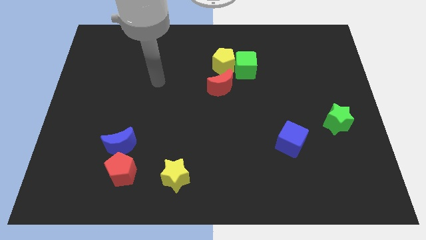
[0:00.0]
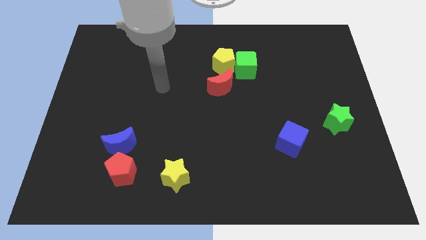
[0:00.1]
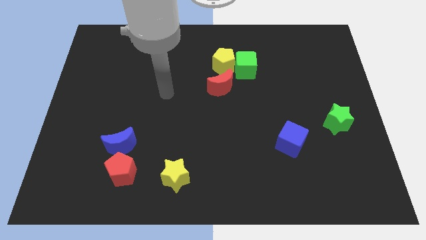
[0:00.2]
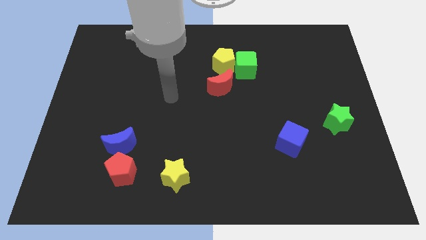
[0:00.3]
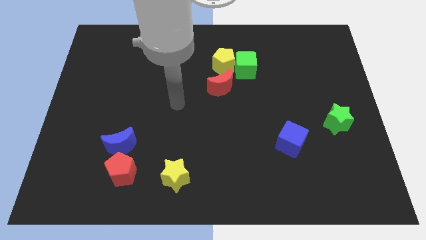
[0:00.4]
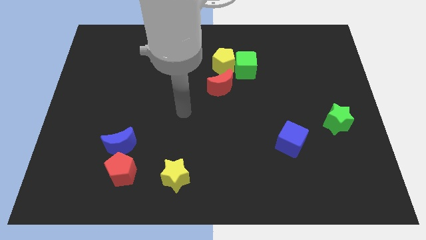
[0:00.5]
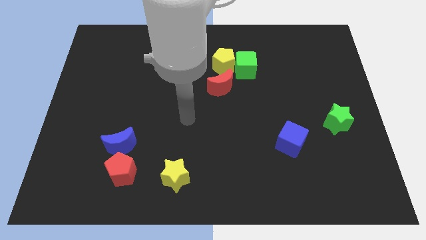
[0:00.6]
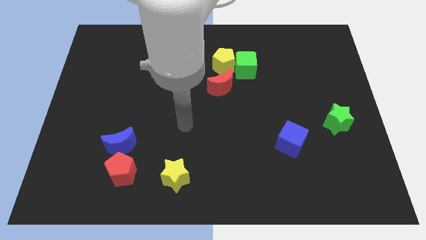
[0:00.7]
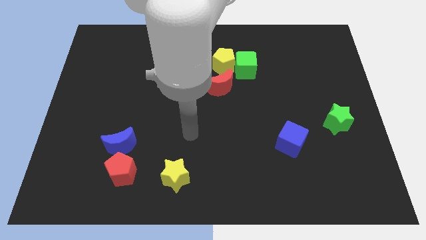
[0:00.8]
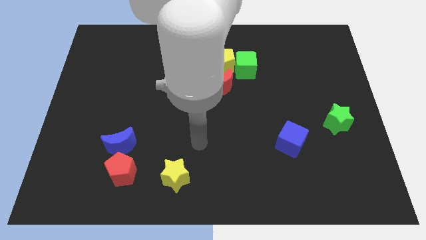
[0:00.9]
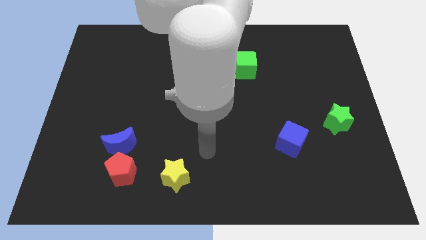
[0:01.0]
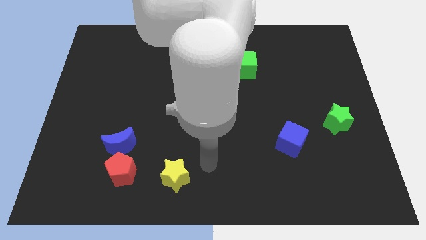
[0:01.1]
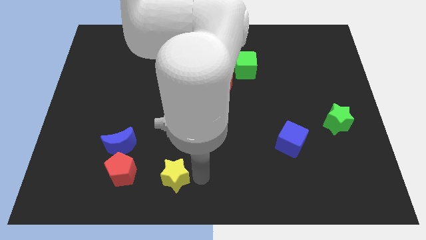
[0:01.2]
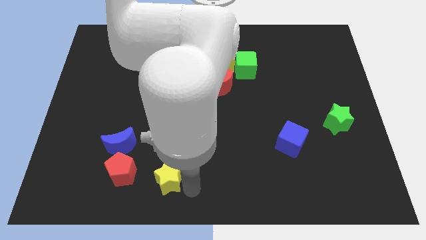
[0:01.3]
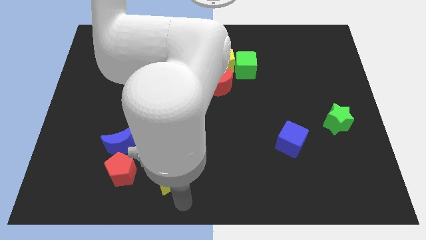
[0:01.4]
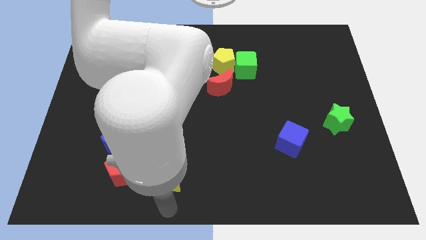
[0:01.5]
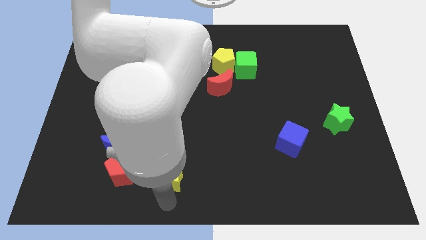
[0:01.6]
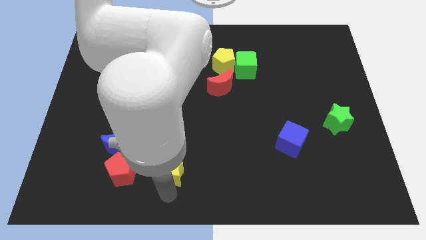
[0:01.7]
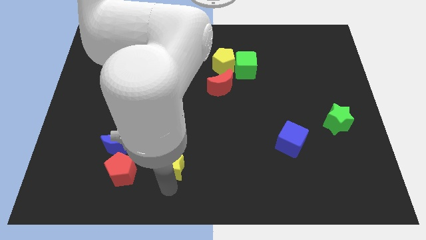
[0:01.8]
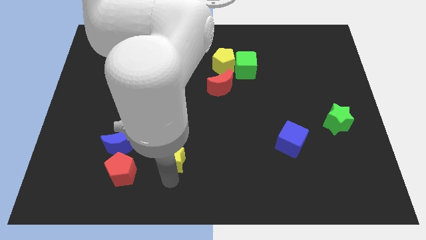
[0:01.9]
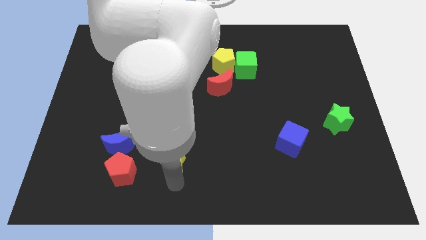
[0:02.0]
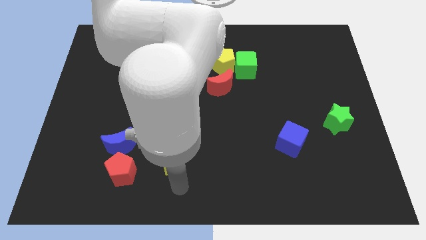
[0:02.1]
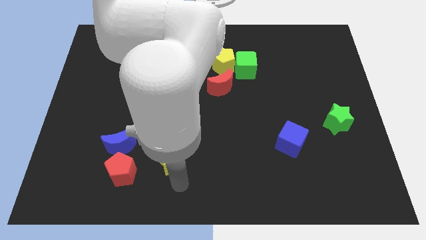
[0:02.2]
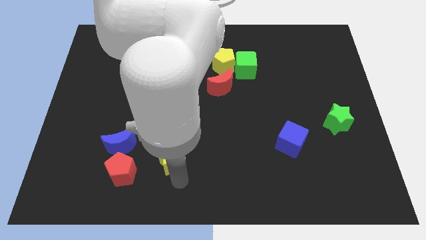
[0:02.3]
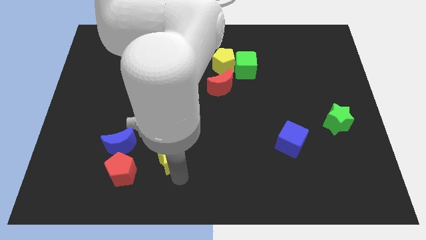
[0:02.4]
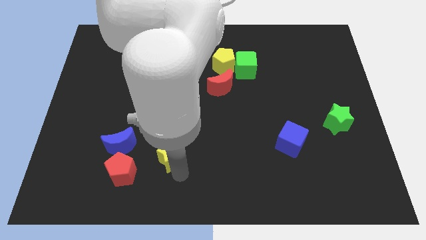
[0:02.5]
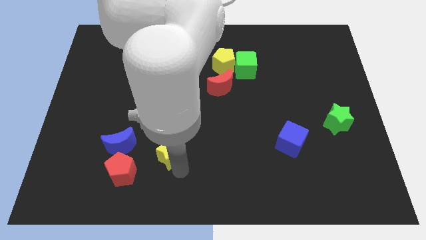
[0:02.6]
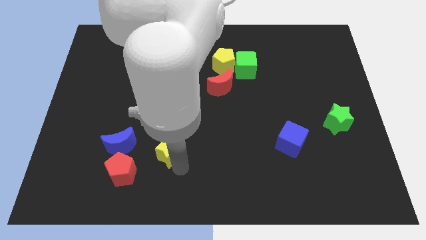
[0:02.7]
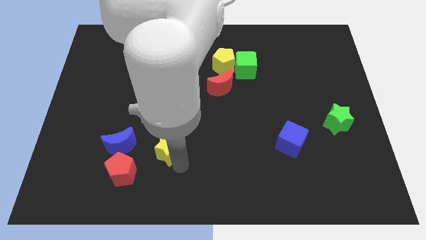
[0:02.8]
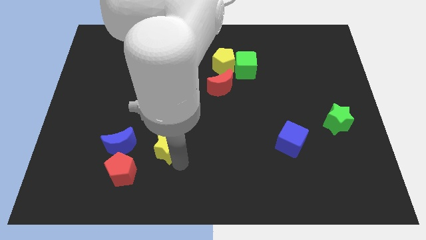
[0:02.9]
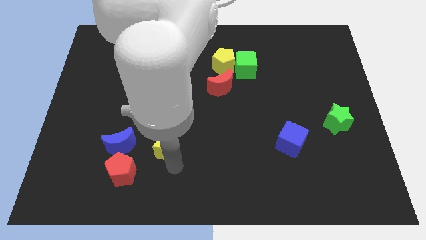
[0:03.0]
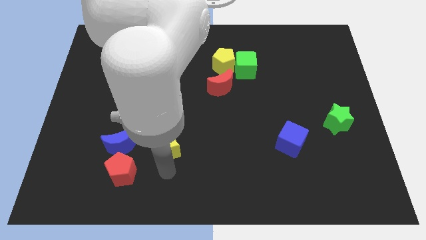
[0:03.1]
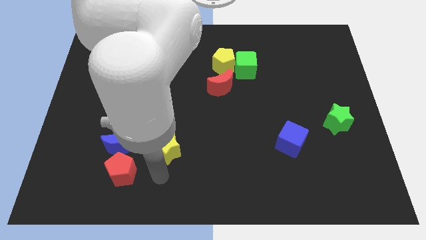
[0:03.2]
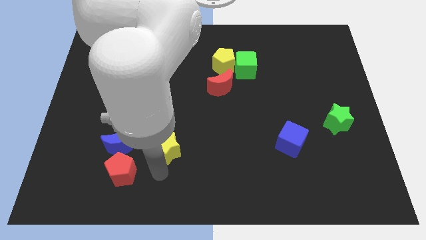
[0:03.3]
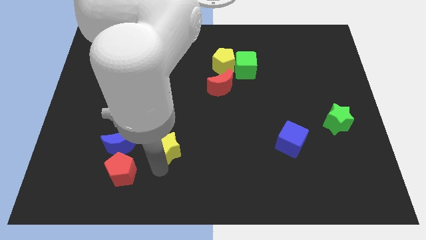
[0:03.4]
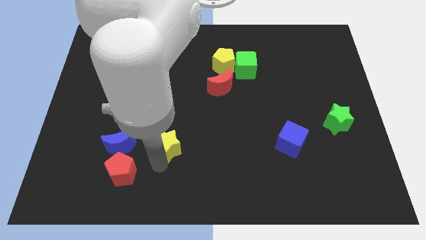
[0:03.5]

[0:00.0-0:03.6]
slightly push the yellow star upwards

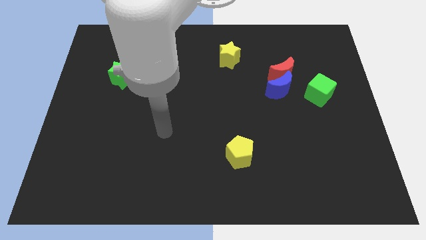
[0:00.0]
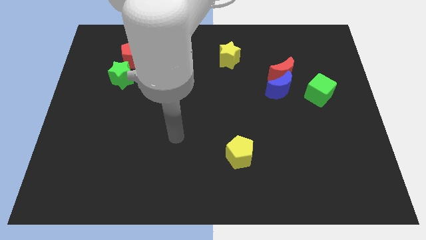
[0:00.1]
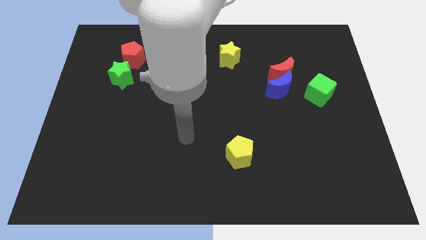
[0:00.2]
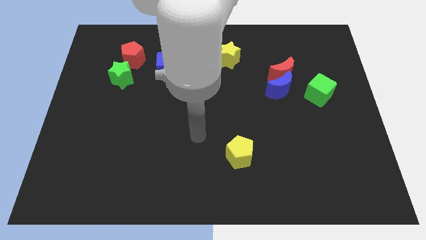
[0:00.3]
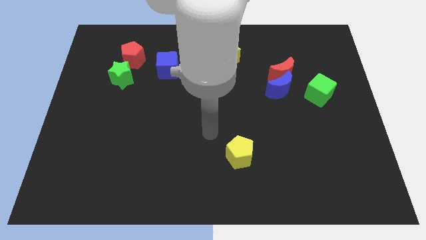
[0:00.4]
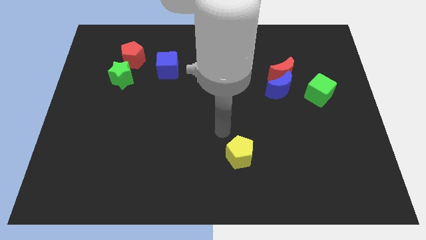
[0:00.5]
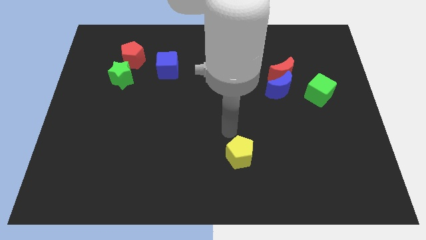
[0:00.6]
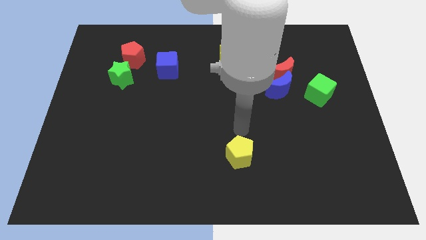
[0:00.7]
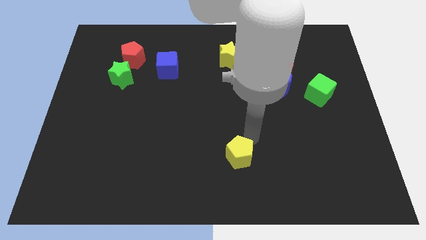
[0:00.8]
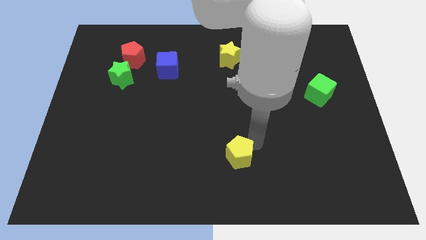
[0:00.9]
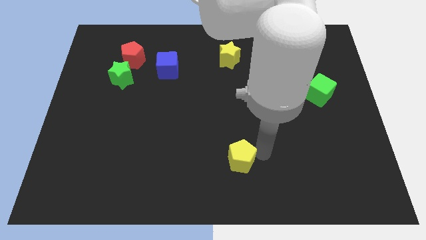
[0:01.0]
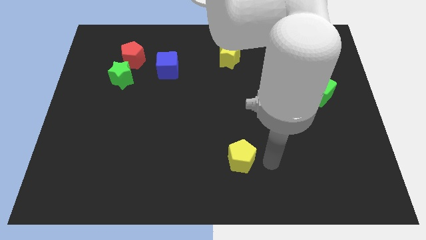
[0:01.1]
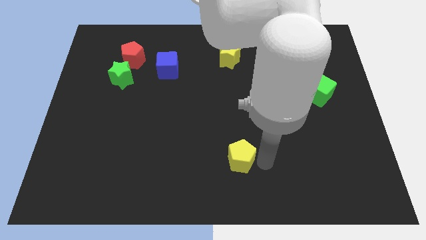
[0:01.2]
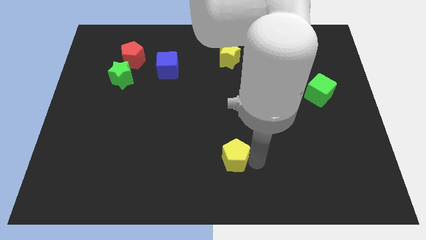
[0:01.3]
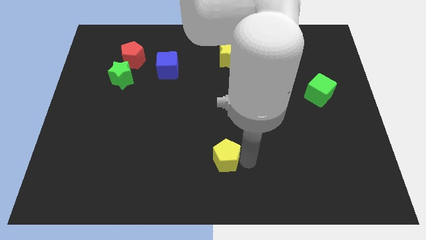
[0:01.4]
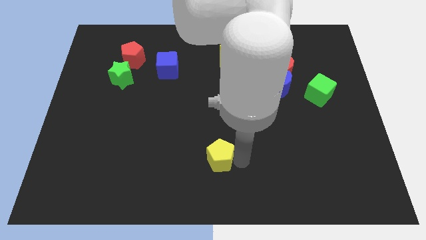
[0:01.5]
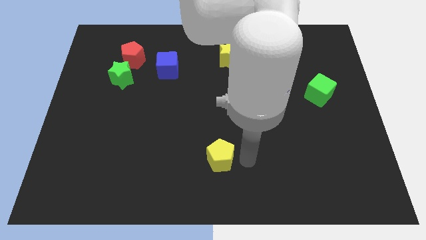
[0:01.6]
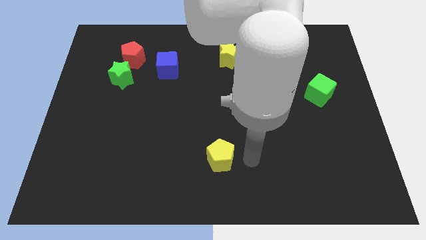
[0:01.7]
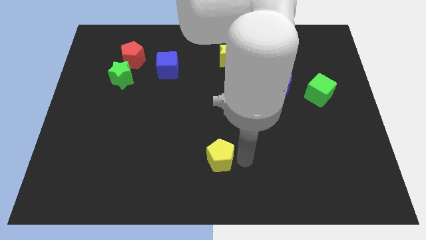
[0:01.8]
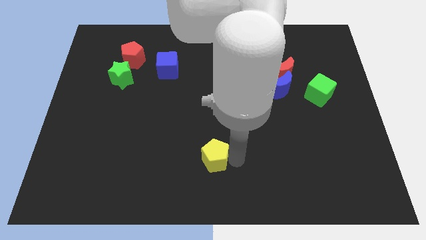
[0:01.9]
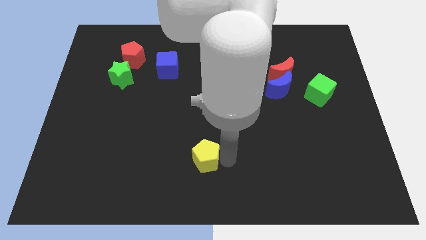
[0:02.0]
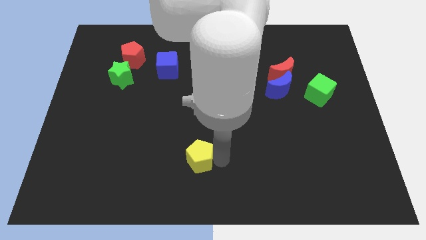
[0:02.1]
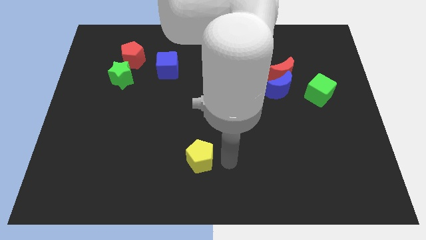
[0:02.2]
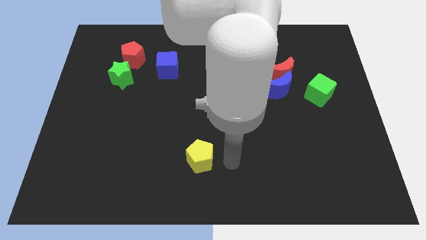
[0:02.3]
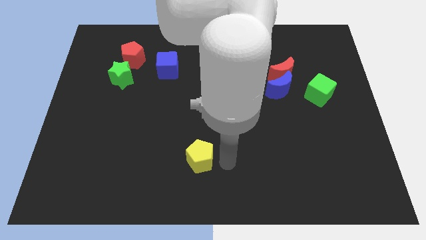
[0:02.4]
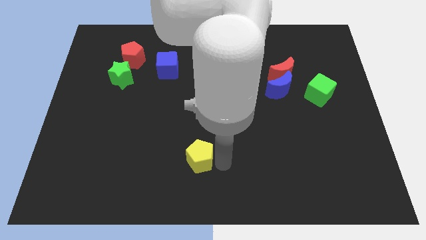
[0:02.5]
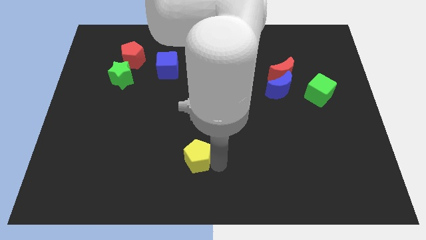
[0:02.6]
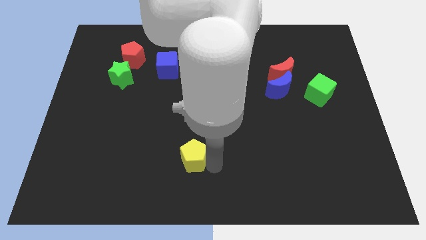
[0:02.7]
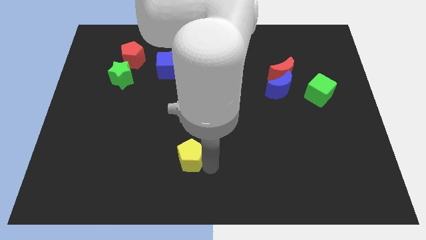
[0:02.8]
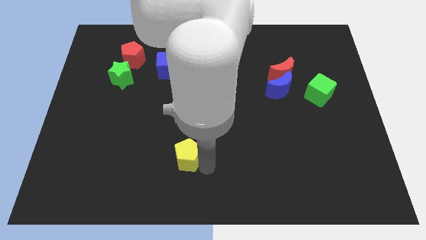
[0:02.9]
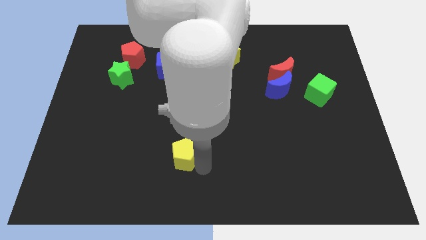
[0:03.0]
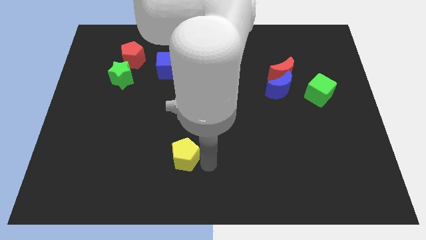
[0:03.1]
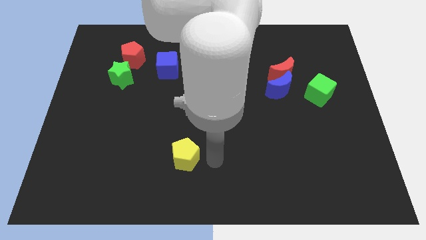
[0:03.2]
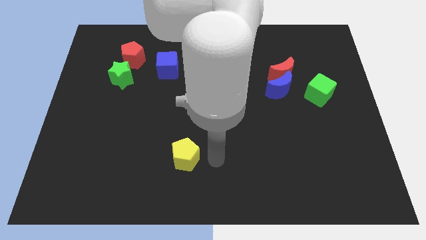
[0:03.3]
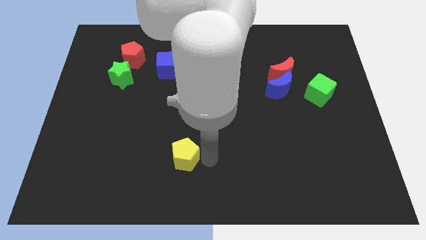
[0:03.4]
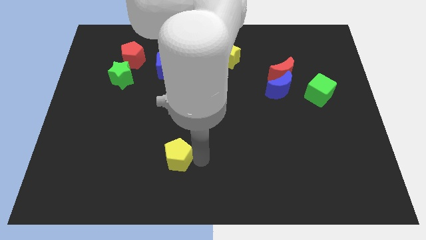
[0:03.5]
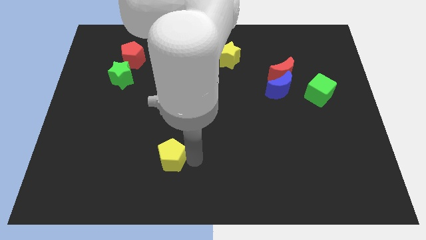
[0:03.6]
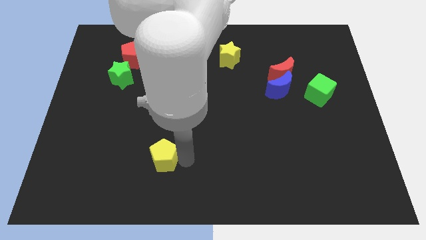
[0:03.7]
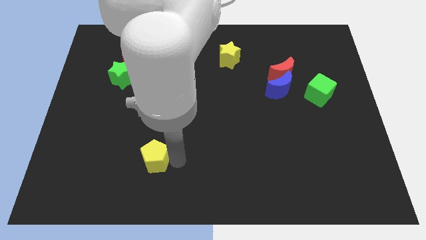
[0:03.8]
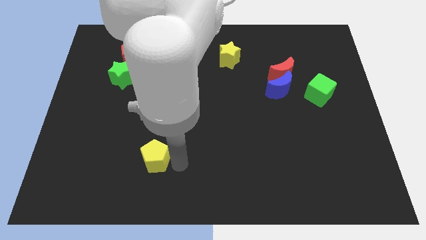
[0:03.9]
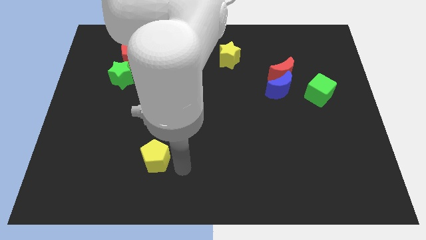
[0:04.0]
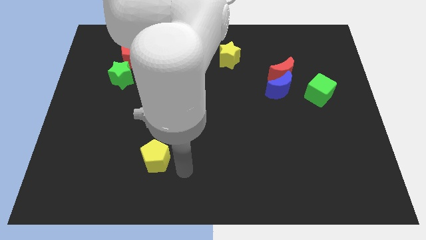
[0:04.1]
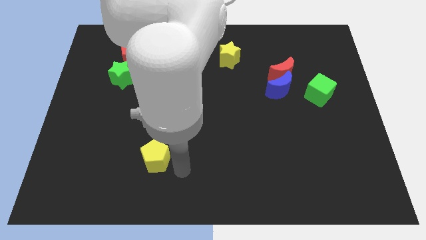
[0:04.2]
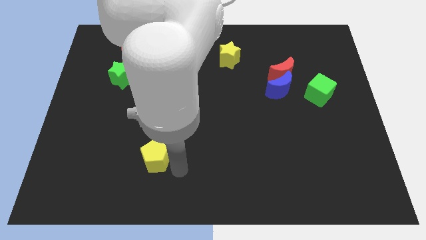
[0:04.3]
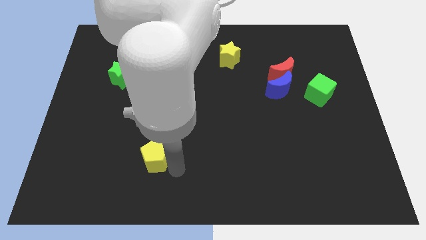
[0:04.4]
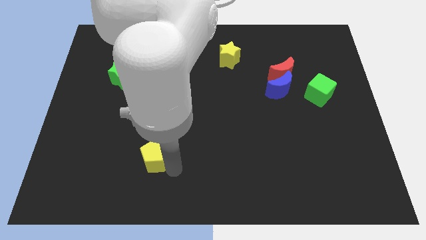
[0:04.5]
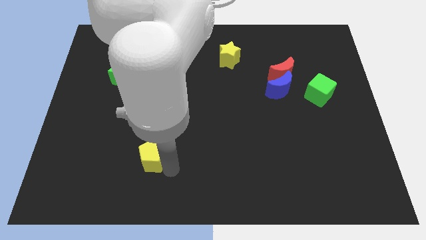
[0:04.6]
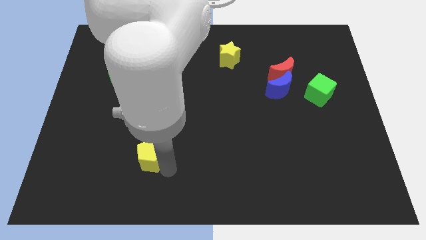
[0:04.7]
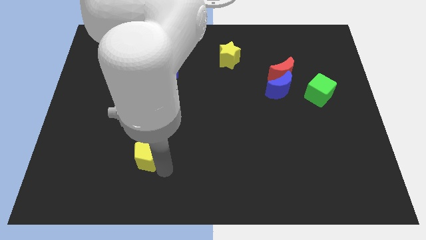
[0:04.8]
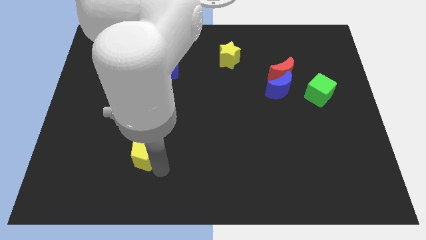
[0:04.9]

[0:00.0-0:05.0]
slide the yellow pentagon left
